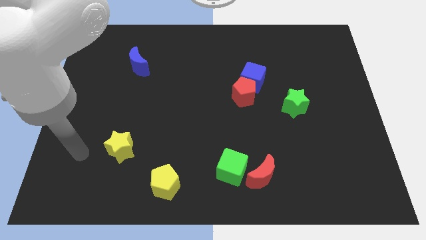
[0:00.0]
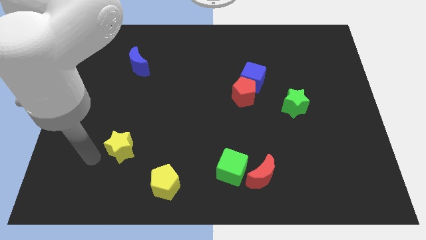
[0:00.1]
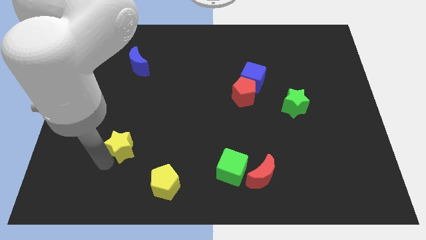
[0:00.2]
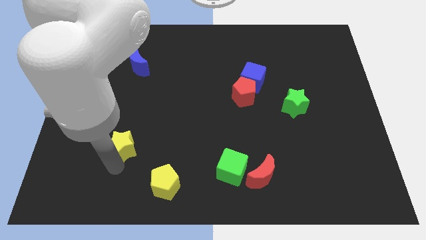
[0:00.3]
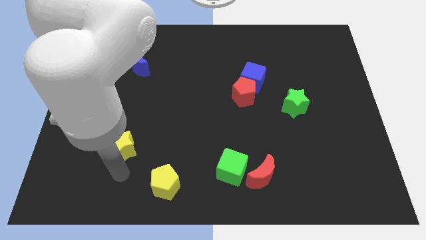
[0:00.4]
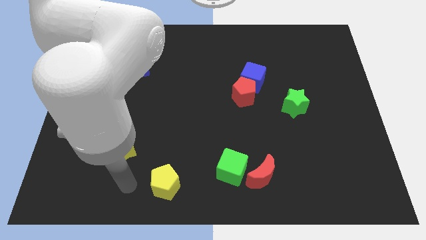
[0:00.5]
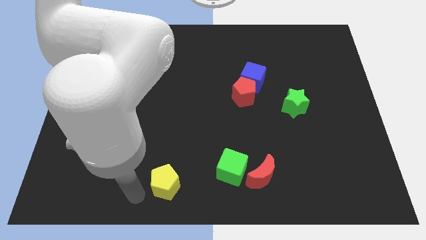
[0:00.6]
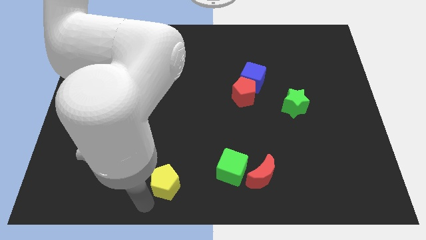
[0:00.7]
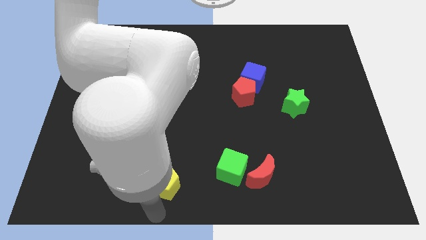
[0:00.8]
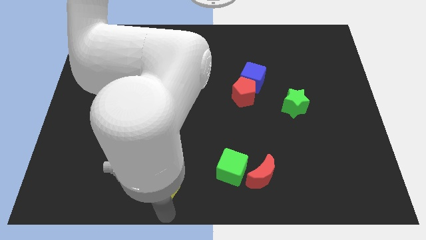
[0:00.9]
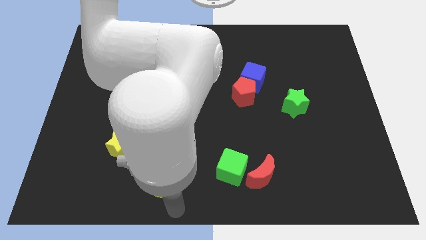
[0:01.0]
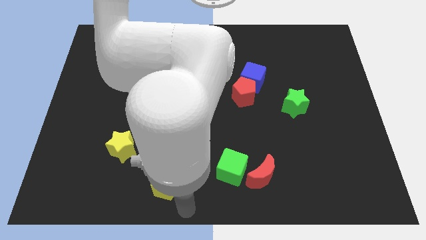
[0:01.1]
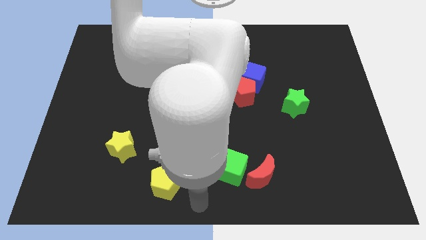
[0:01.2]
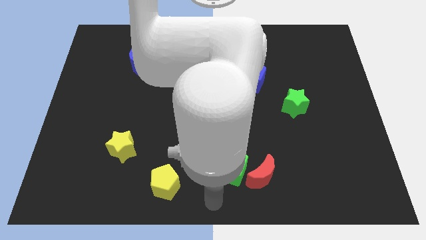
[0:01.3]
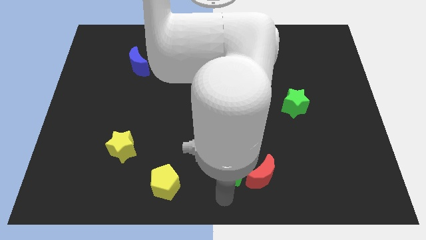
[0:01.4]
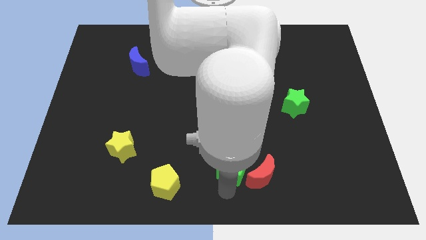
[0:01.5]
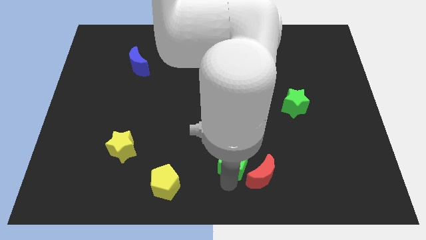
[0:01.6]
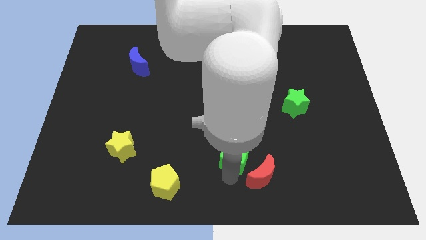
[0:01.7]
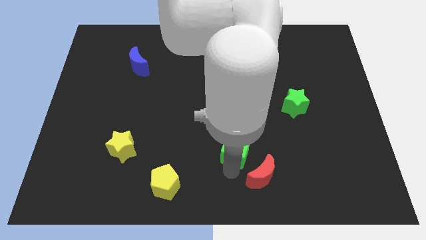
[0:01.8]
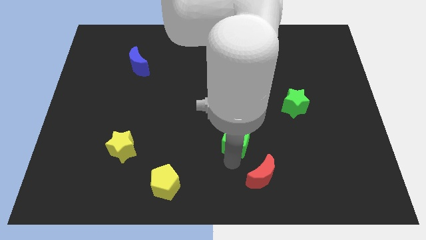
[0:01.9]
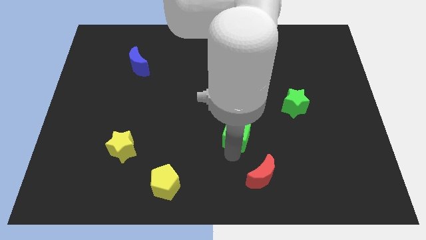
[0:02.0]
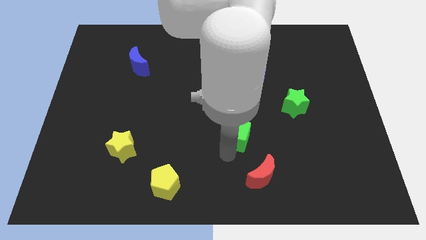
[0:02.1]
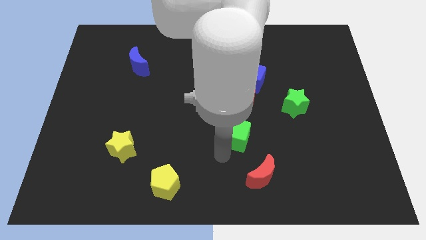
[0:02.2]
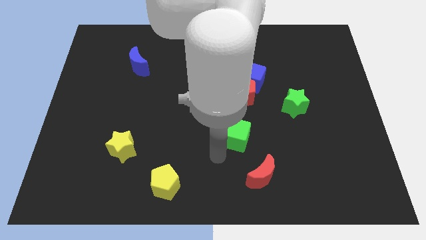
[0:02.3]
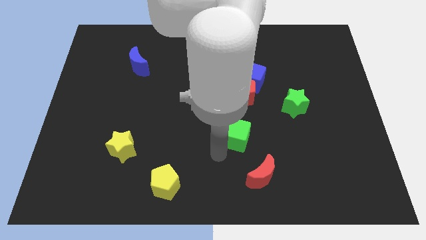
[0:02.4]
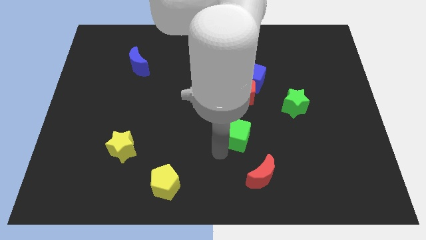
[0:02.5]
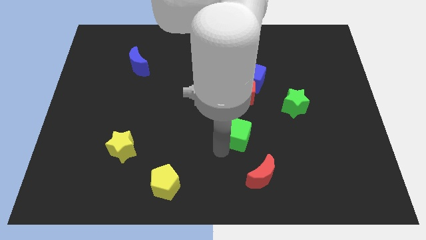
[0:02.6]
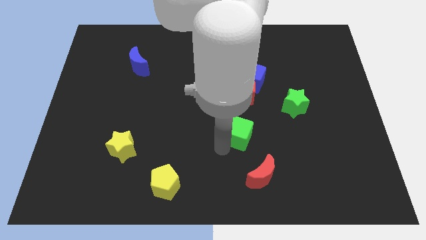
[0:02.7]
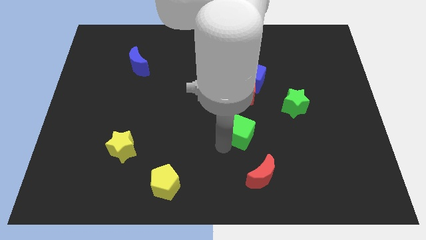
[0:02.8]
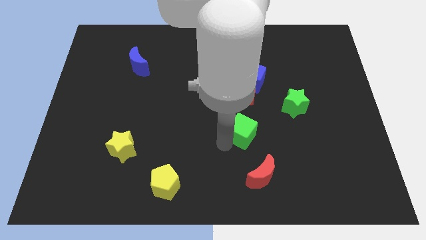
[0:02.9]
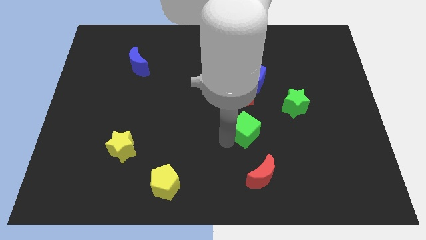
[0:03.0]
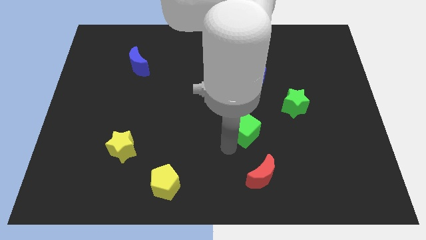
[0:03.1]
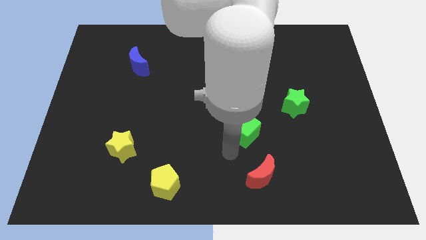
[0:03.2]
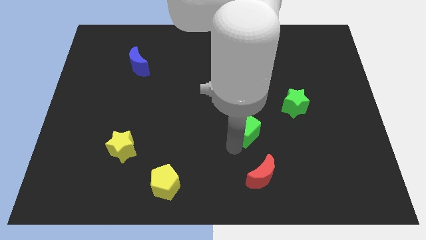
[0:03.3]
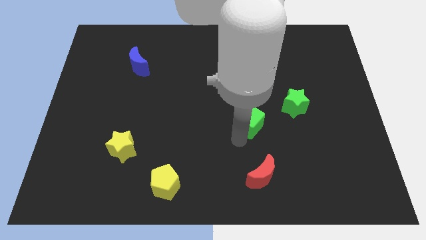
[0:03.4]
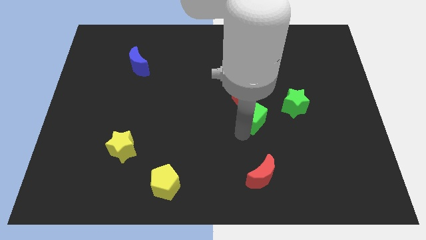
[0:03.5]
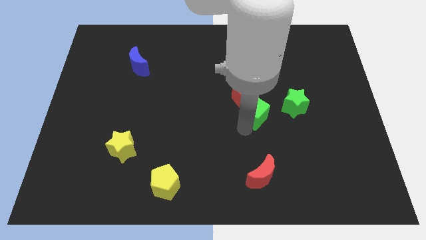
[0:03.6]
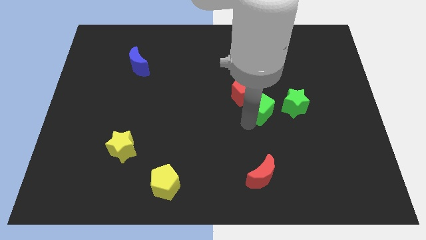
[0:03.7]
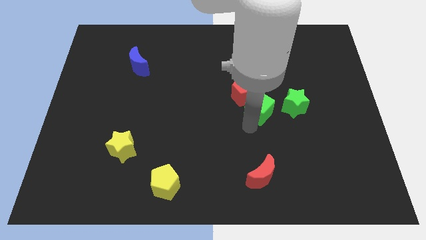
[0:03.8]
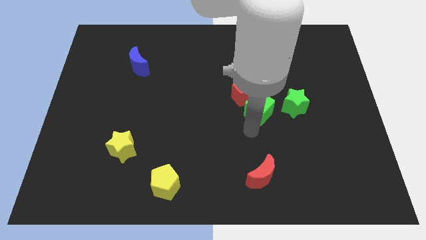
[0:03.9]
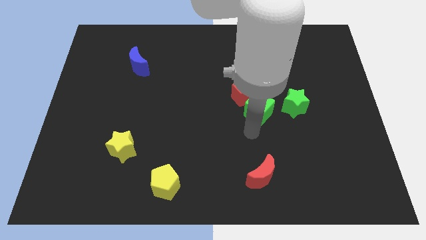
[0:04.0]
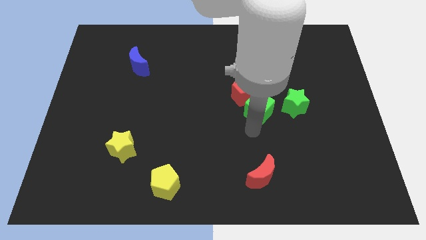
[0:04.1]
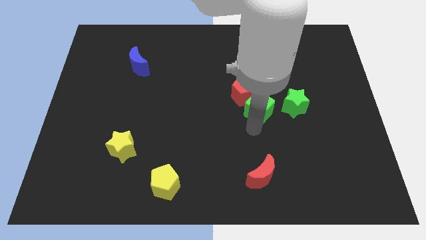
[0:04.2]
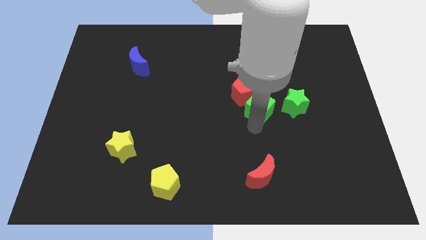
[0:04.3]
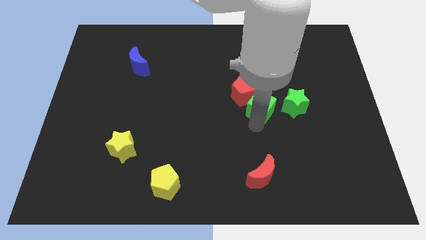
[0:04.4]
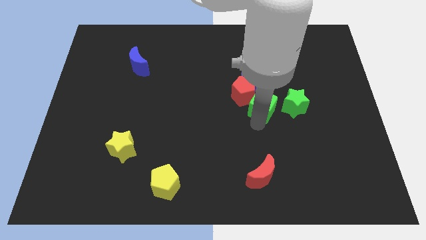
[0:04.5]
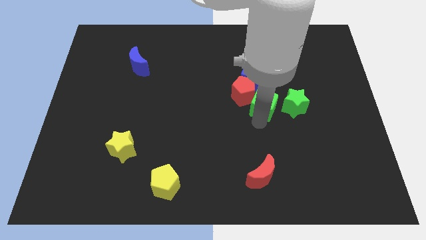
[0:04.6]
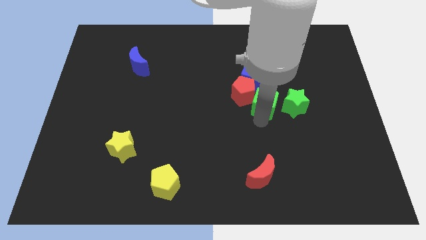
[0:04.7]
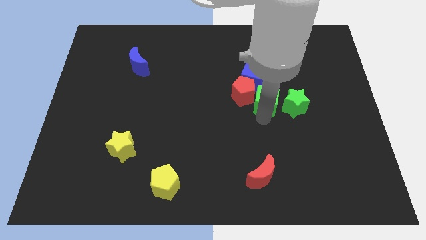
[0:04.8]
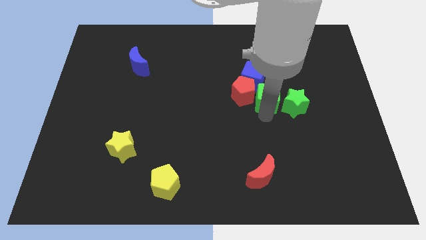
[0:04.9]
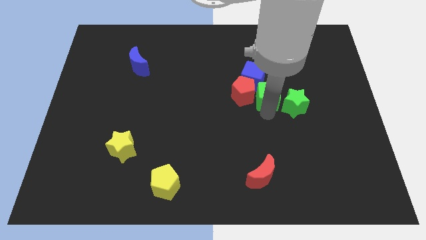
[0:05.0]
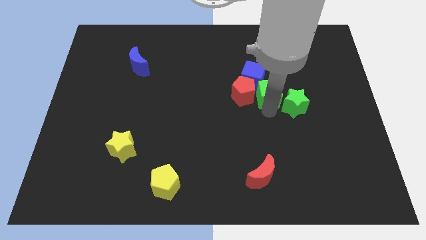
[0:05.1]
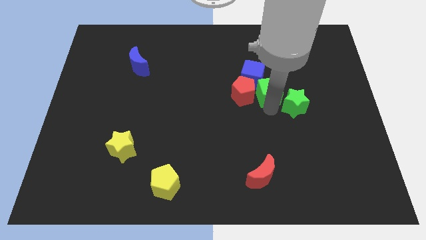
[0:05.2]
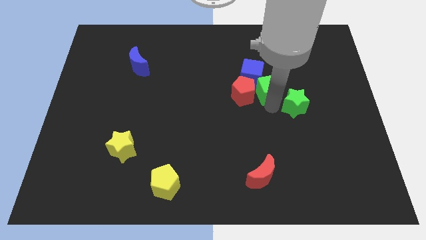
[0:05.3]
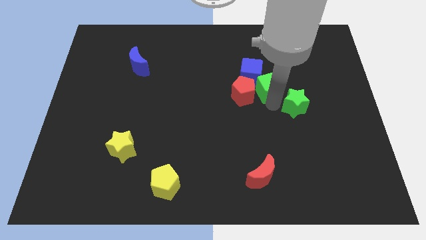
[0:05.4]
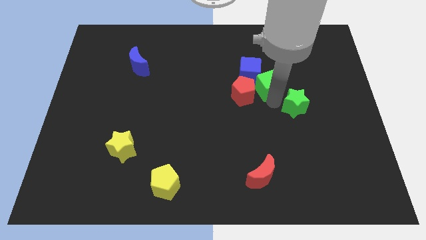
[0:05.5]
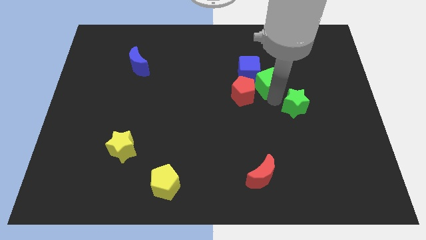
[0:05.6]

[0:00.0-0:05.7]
slide the green cube close to the blue cube

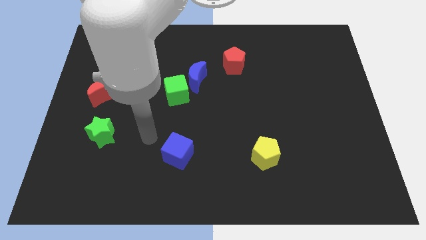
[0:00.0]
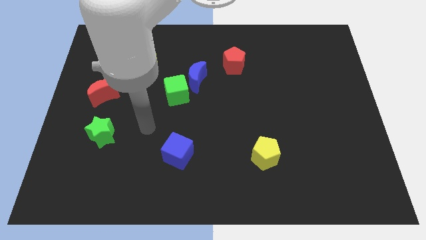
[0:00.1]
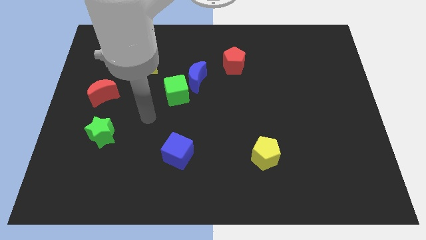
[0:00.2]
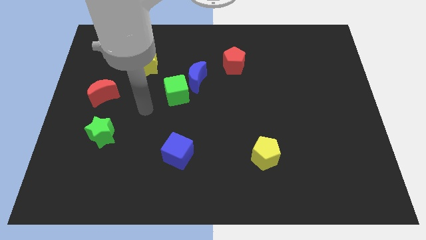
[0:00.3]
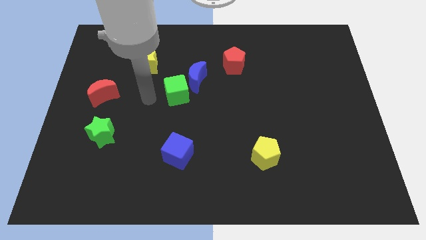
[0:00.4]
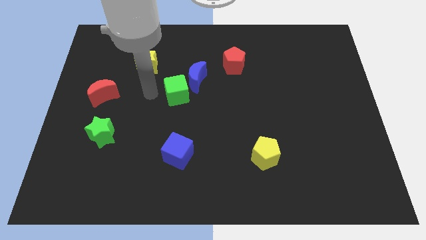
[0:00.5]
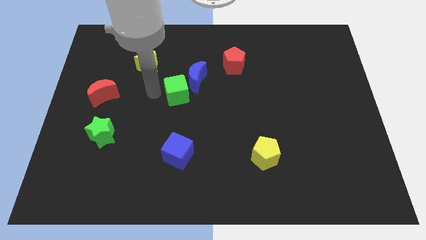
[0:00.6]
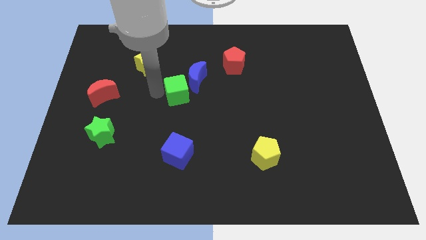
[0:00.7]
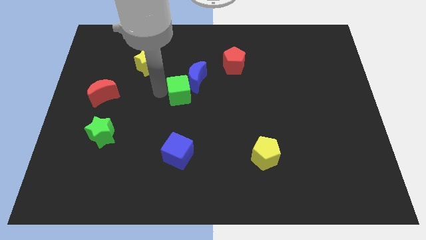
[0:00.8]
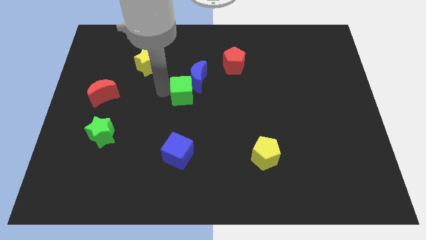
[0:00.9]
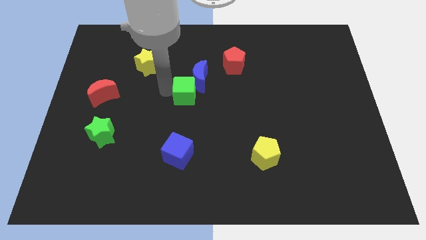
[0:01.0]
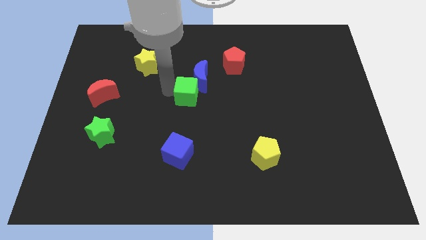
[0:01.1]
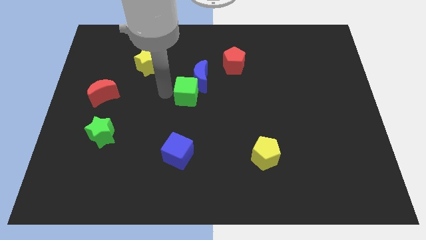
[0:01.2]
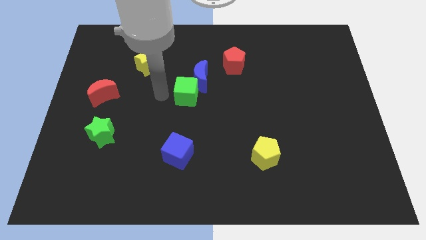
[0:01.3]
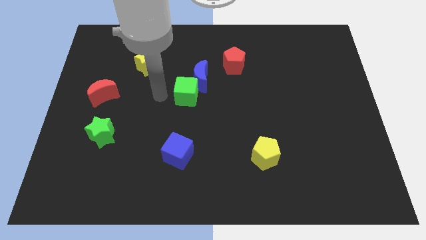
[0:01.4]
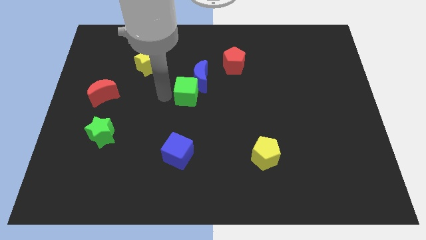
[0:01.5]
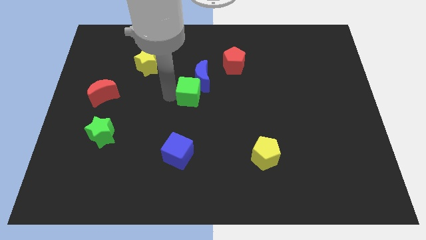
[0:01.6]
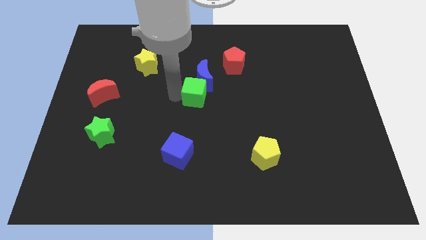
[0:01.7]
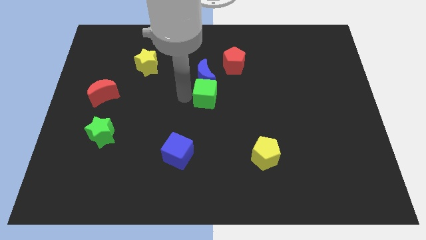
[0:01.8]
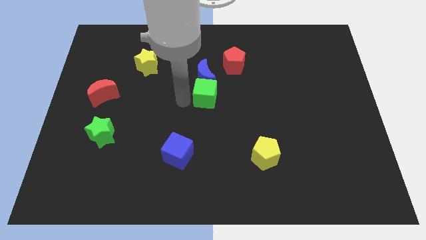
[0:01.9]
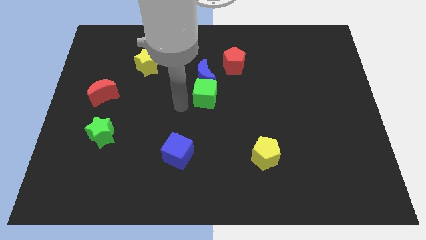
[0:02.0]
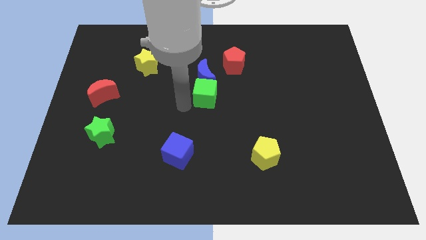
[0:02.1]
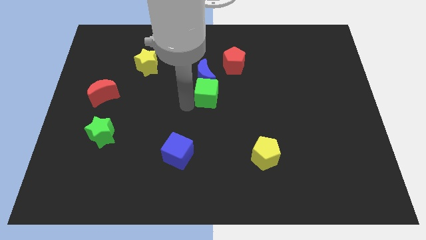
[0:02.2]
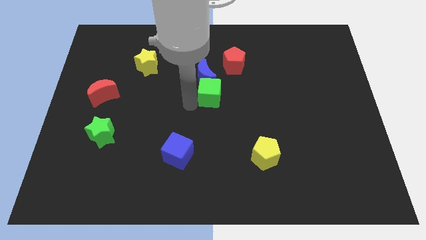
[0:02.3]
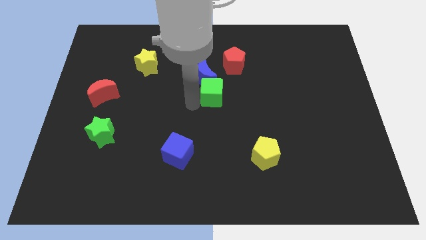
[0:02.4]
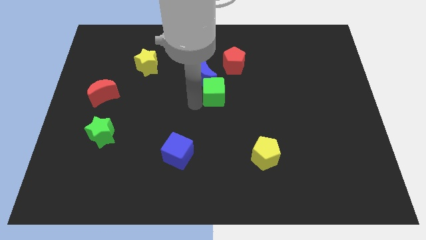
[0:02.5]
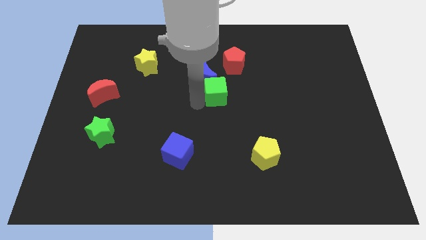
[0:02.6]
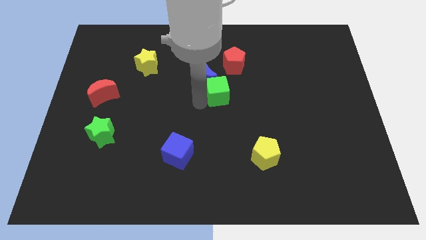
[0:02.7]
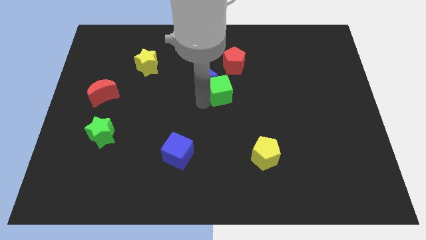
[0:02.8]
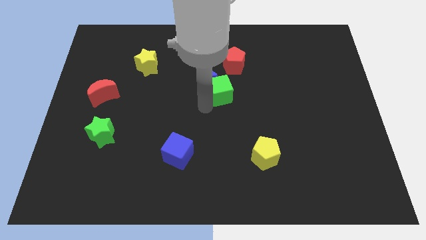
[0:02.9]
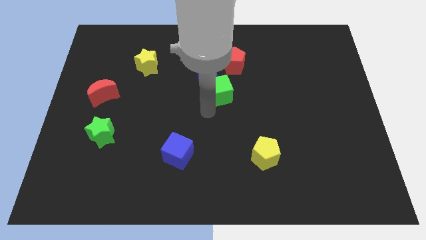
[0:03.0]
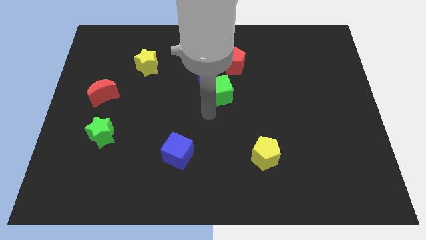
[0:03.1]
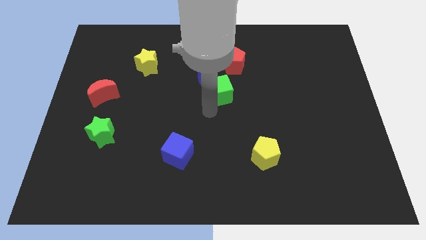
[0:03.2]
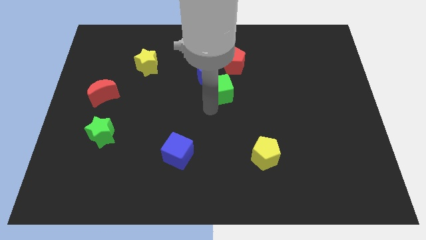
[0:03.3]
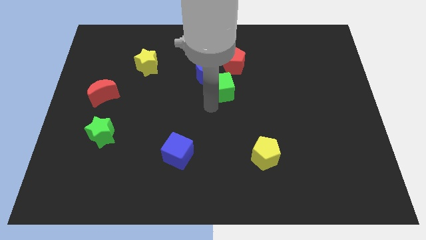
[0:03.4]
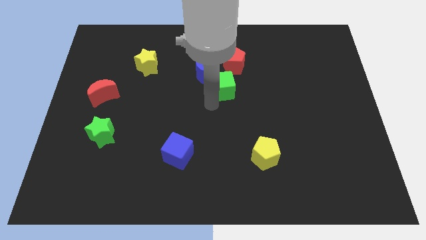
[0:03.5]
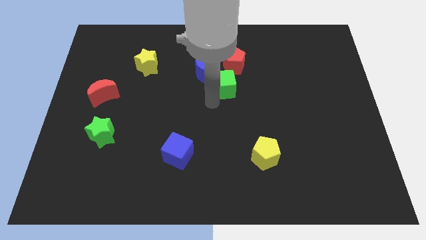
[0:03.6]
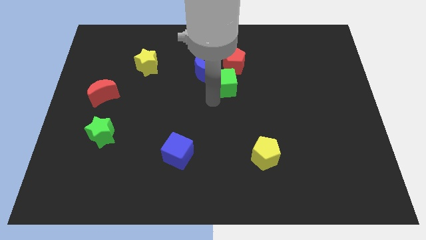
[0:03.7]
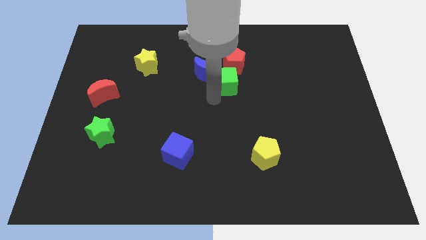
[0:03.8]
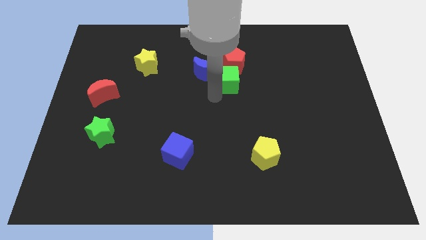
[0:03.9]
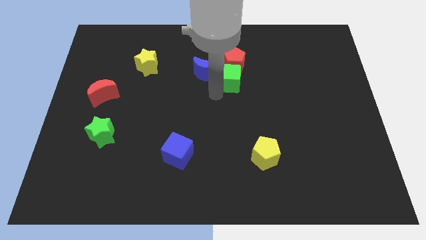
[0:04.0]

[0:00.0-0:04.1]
move the green cube next to the red pentagon
